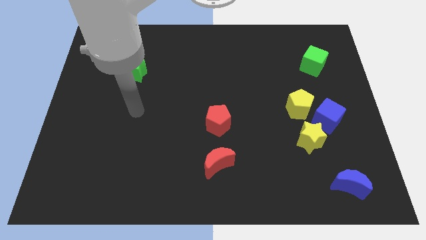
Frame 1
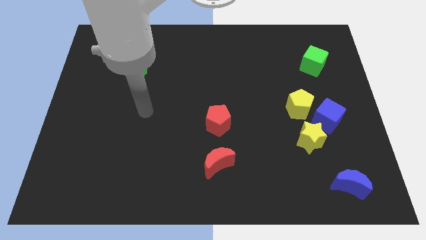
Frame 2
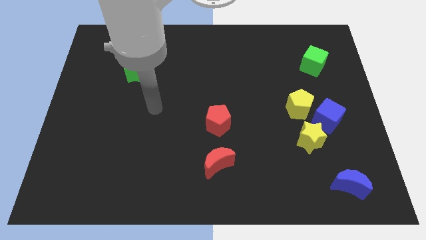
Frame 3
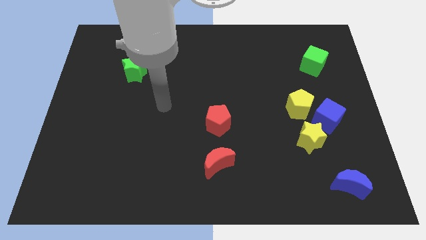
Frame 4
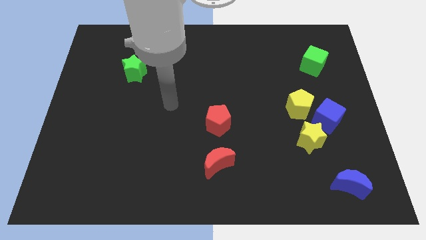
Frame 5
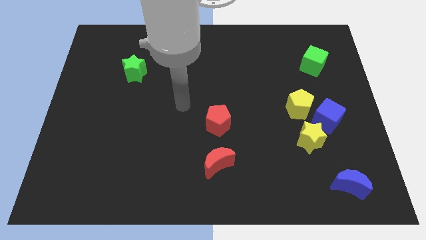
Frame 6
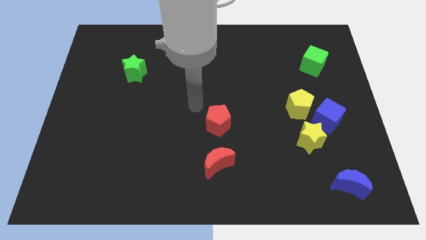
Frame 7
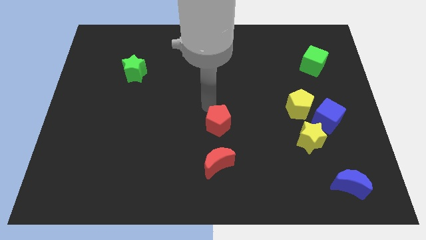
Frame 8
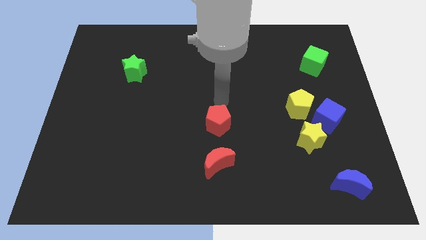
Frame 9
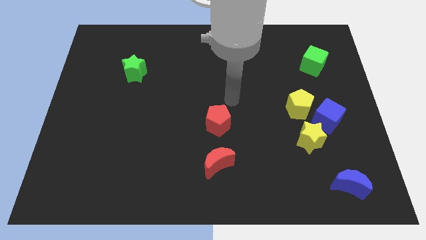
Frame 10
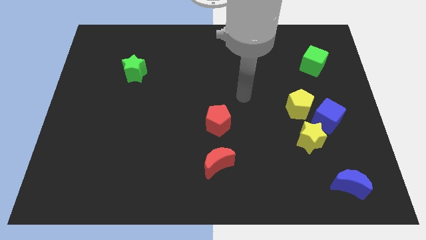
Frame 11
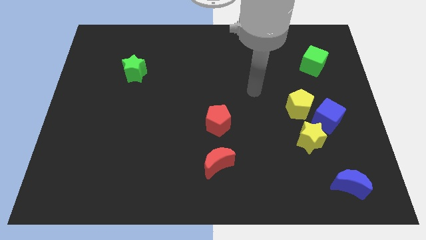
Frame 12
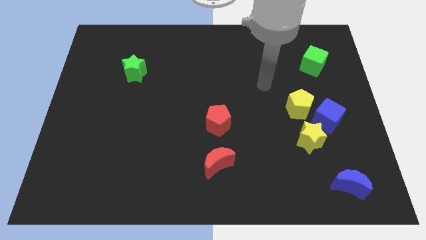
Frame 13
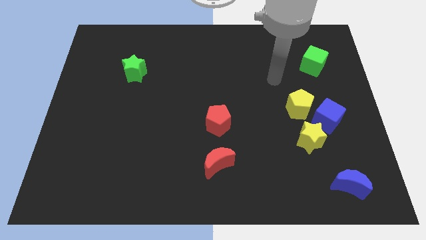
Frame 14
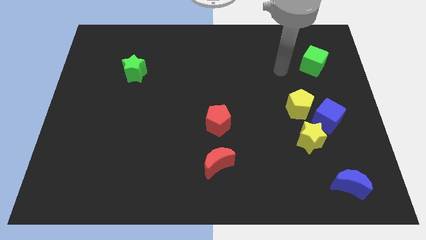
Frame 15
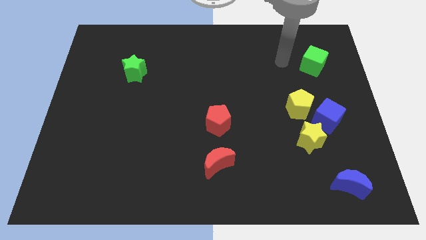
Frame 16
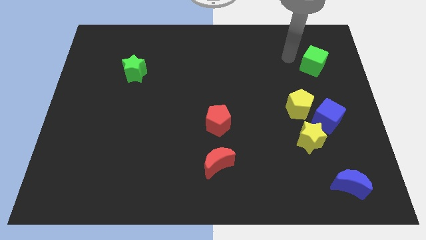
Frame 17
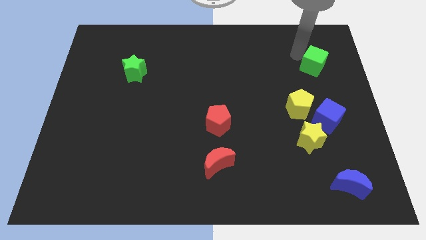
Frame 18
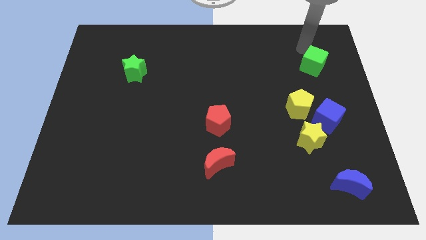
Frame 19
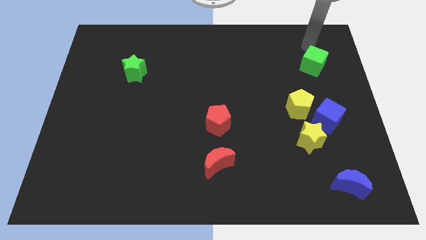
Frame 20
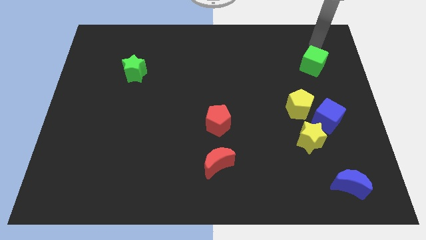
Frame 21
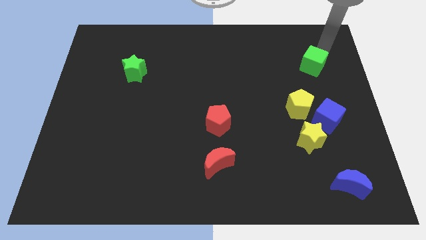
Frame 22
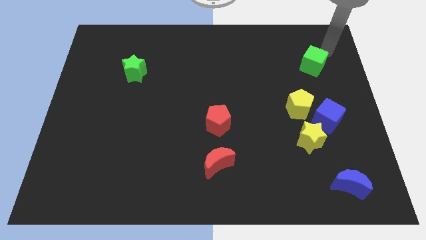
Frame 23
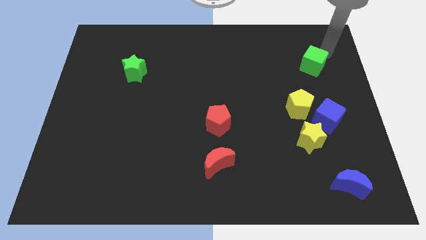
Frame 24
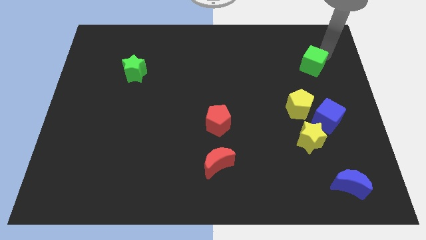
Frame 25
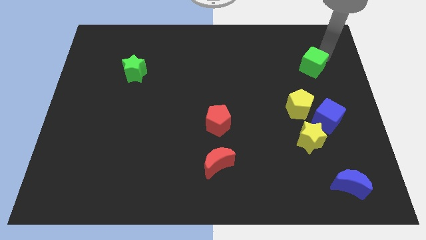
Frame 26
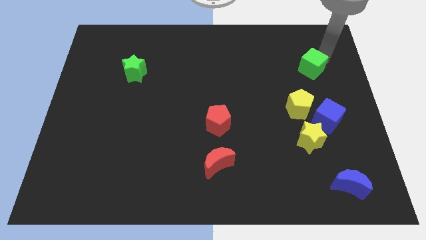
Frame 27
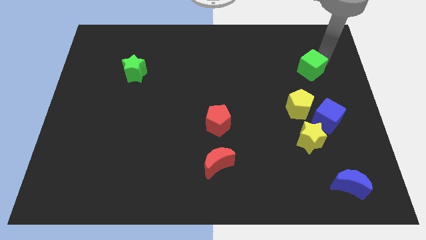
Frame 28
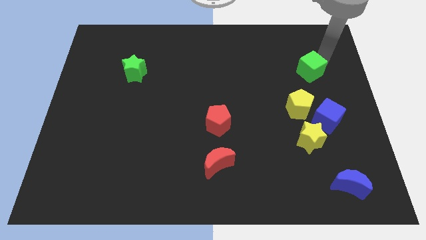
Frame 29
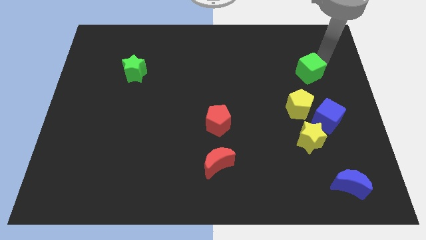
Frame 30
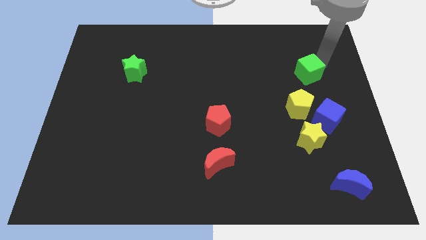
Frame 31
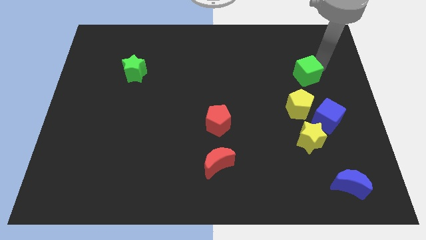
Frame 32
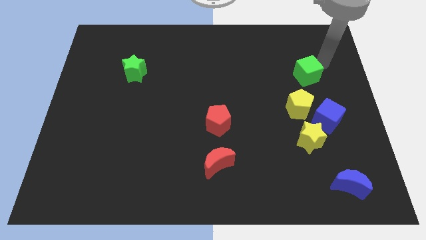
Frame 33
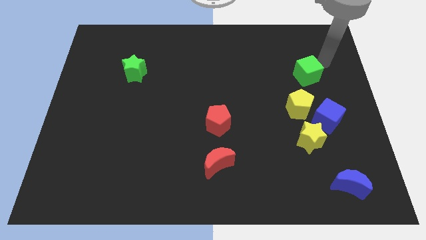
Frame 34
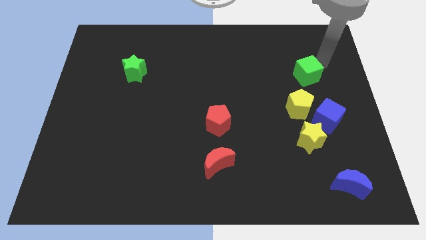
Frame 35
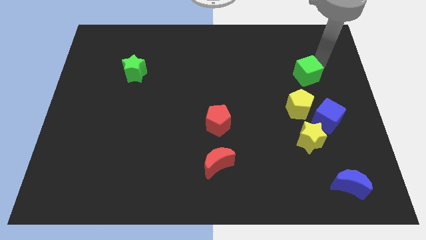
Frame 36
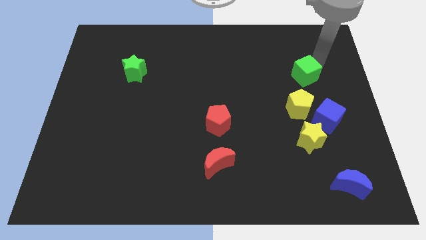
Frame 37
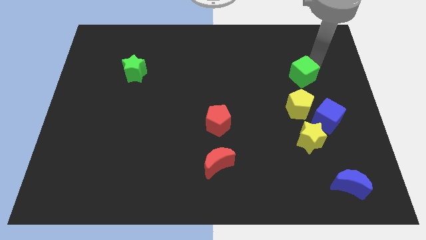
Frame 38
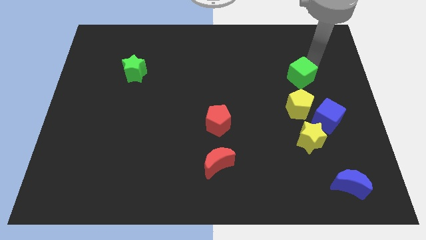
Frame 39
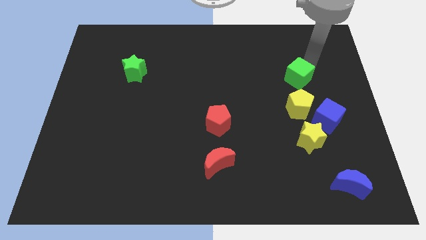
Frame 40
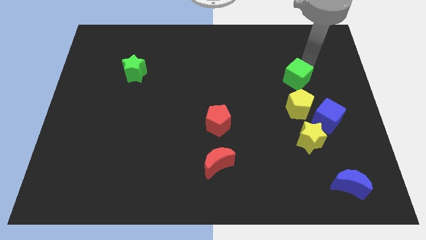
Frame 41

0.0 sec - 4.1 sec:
slightly move the green cube diagonally down and to the left

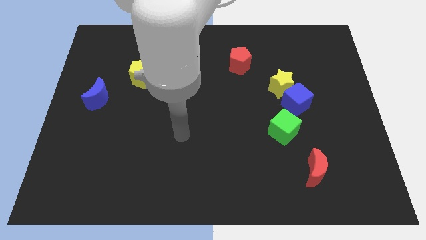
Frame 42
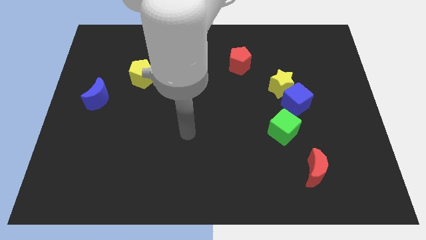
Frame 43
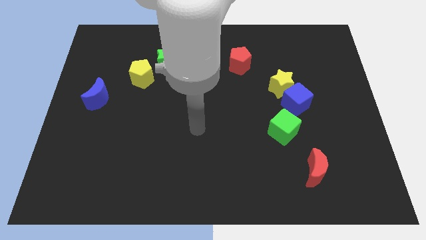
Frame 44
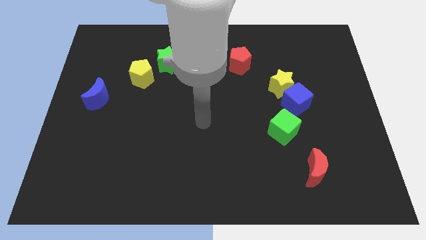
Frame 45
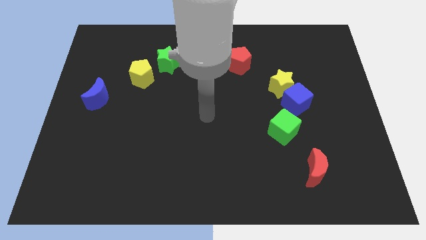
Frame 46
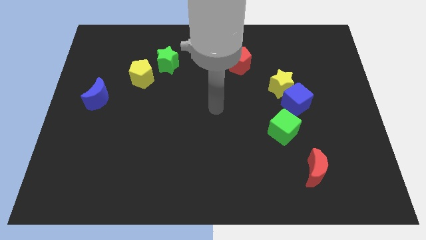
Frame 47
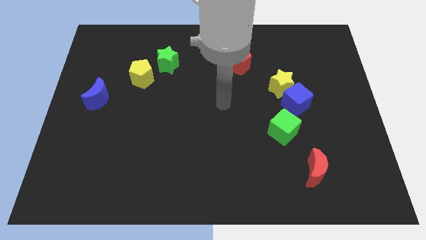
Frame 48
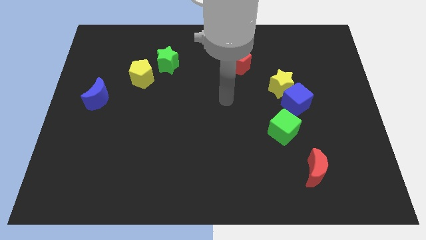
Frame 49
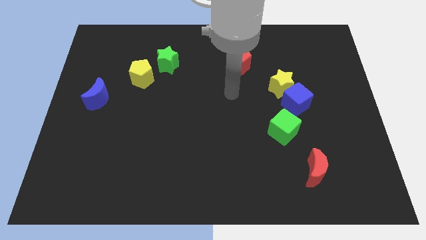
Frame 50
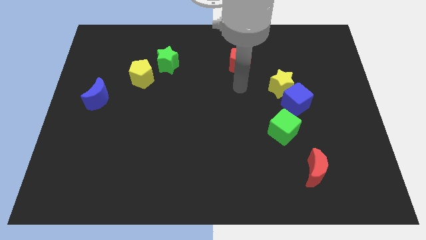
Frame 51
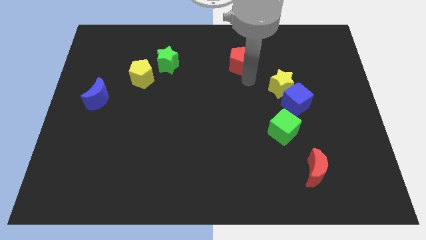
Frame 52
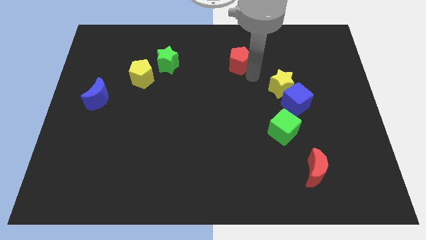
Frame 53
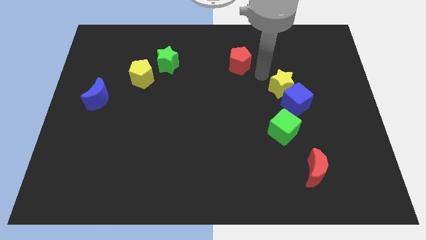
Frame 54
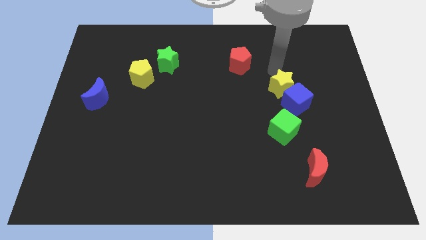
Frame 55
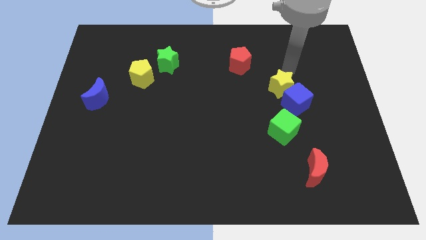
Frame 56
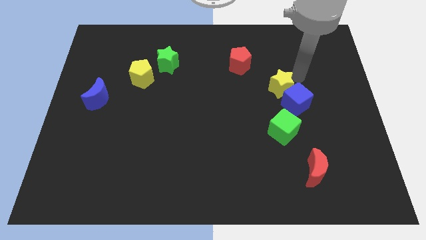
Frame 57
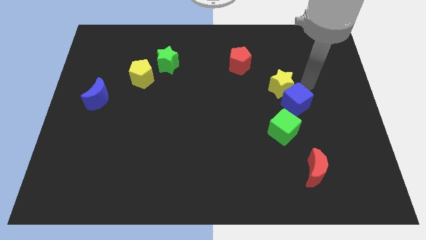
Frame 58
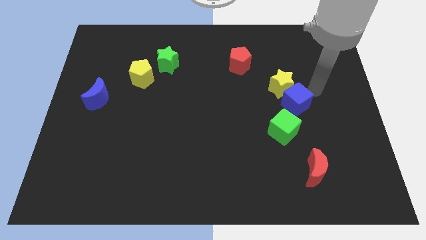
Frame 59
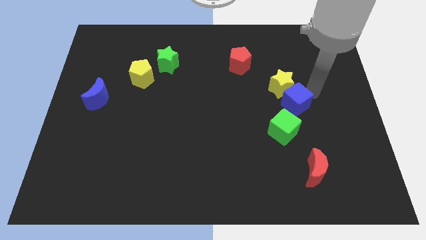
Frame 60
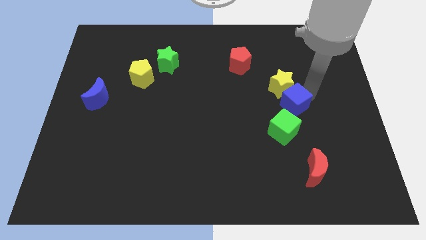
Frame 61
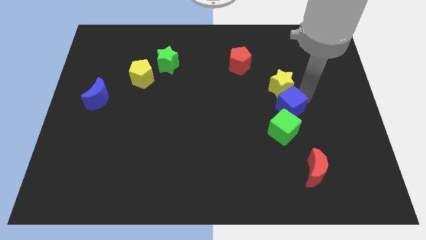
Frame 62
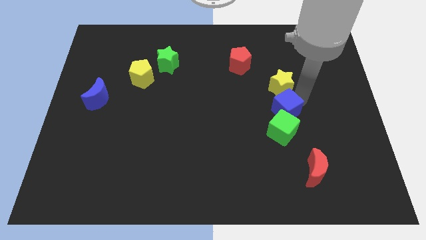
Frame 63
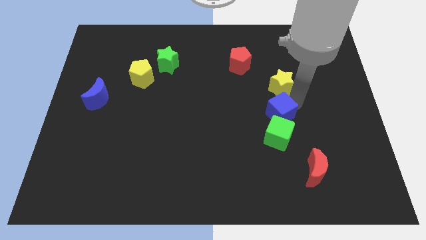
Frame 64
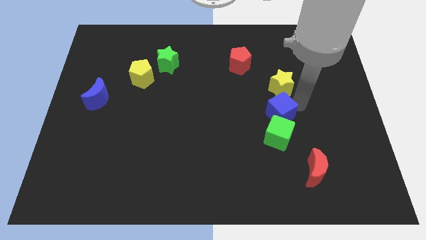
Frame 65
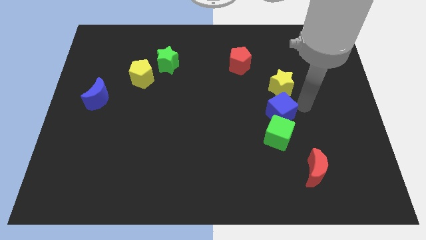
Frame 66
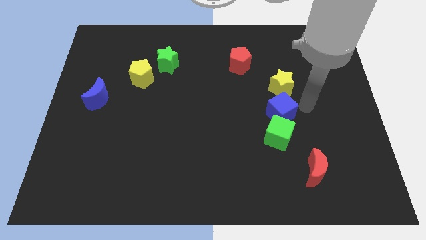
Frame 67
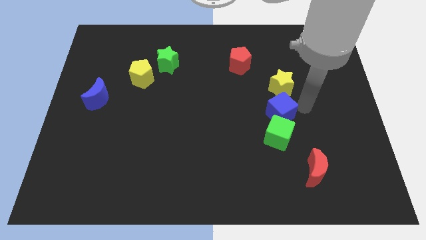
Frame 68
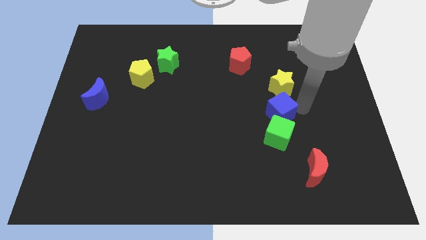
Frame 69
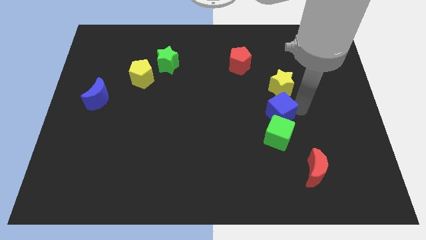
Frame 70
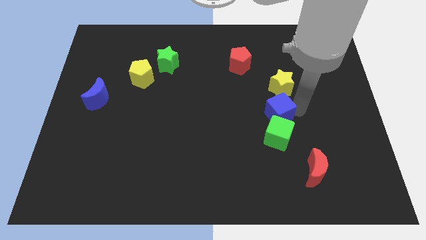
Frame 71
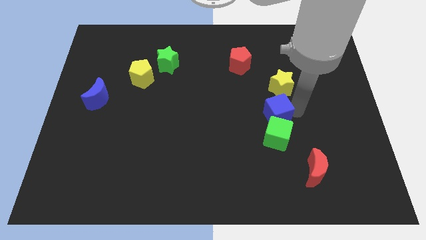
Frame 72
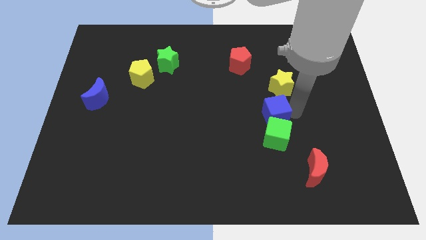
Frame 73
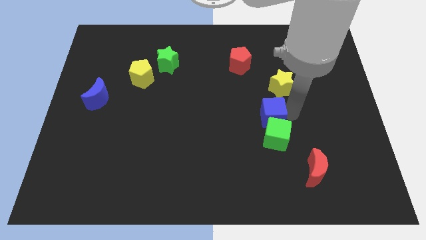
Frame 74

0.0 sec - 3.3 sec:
slide the blue cube diagonally downwards and left a little bit

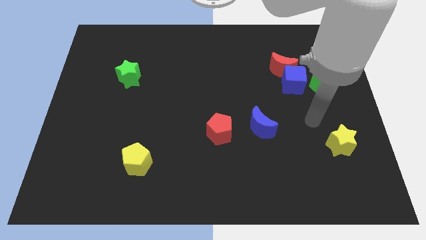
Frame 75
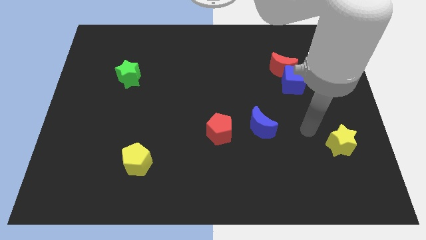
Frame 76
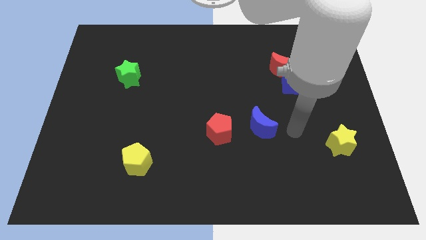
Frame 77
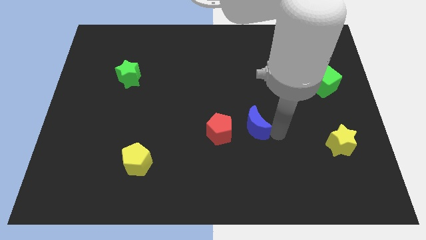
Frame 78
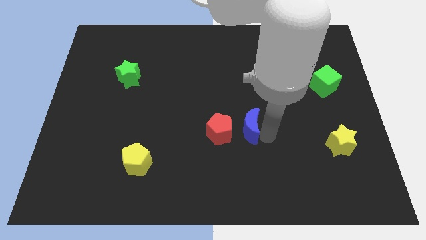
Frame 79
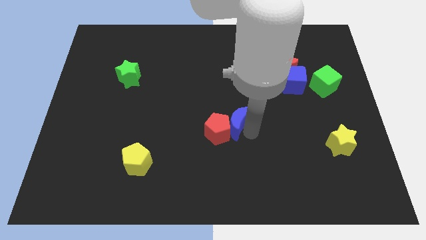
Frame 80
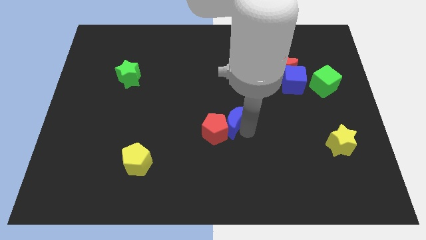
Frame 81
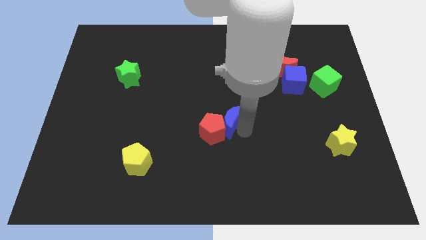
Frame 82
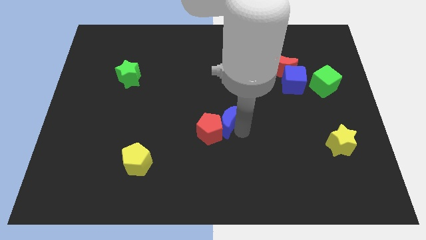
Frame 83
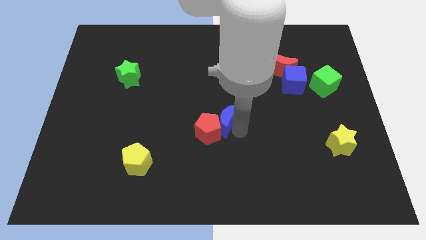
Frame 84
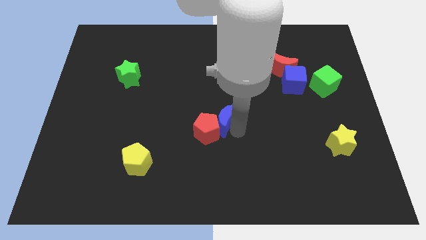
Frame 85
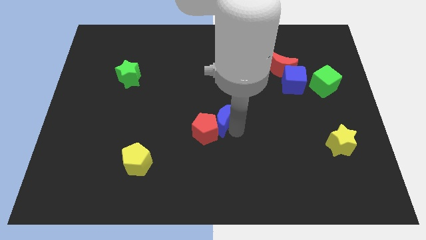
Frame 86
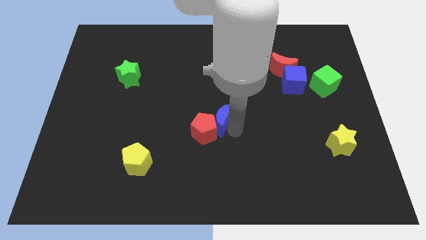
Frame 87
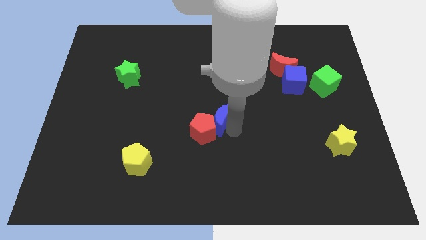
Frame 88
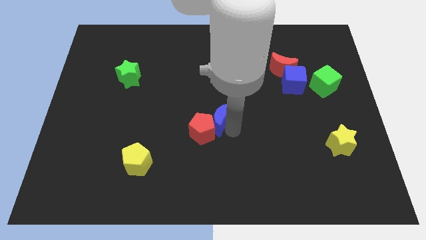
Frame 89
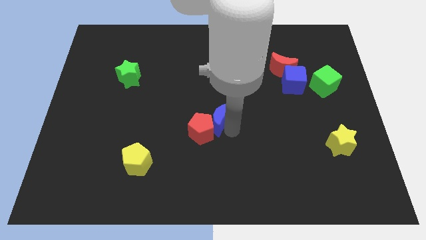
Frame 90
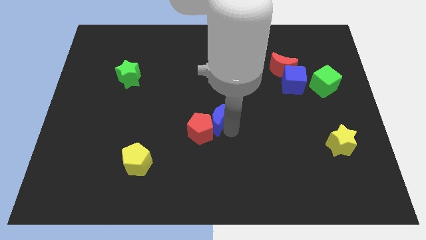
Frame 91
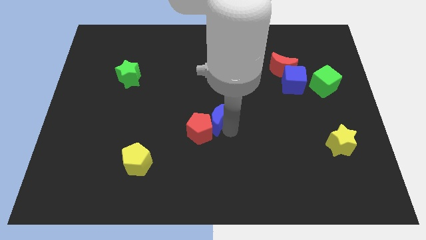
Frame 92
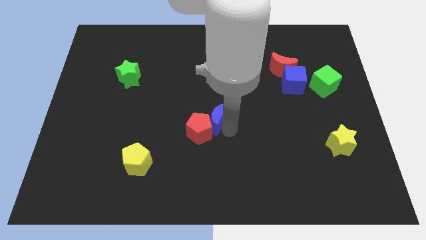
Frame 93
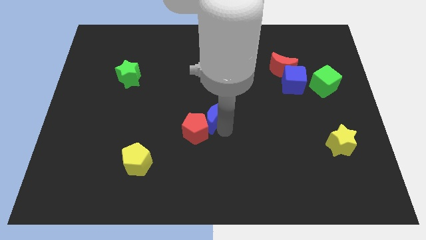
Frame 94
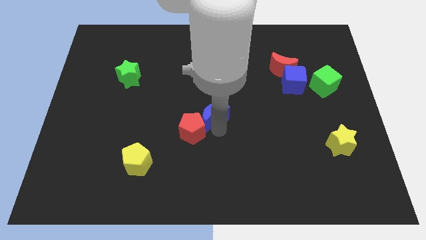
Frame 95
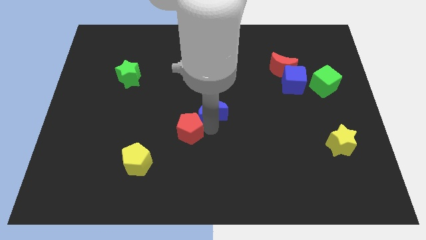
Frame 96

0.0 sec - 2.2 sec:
slide the red pentagon left slightly
